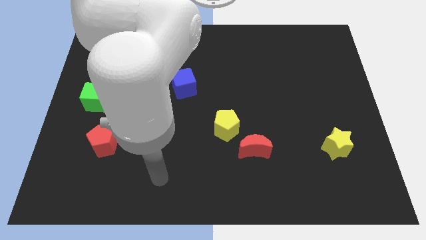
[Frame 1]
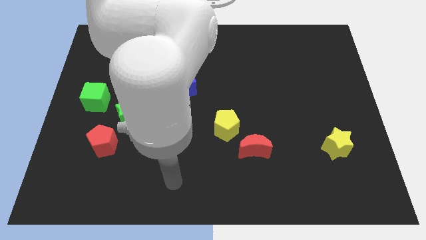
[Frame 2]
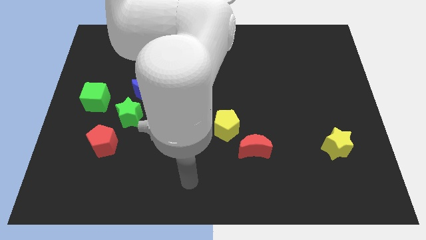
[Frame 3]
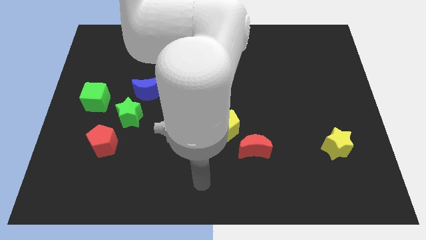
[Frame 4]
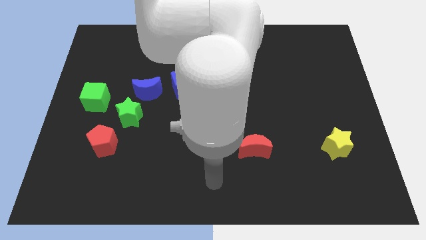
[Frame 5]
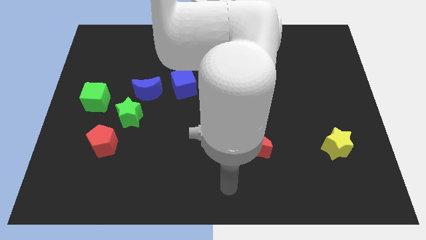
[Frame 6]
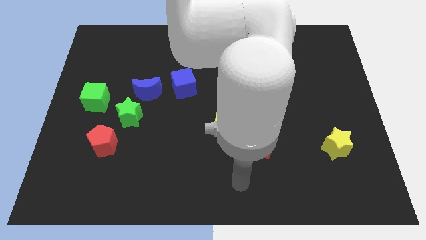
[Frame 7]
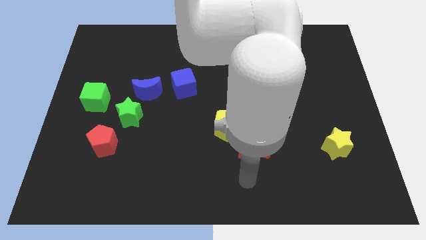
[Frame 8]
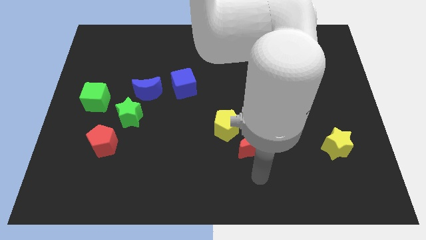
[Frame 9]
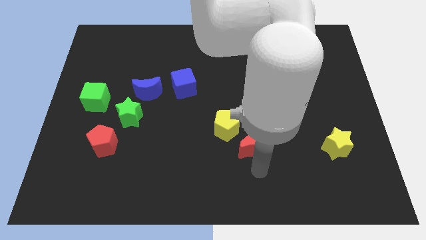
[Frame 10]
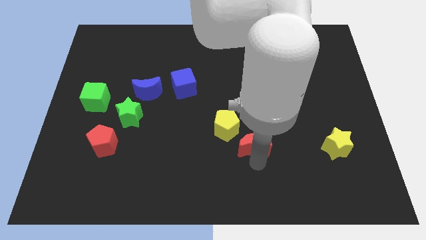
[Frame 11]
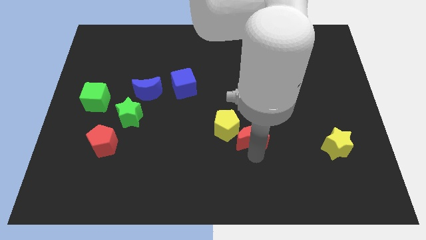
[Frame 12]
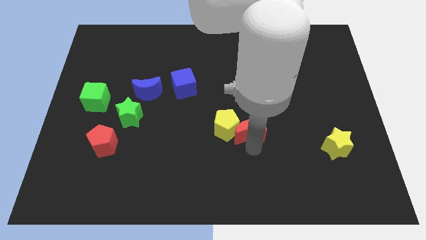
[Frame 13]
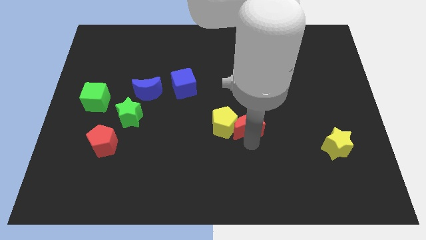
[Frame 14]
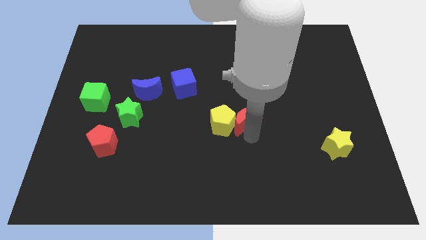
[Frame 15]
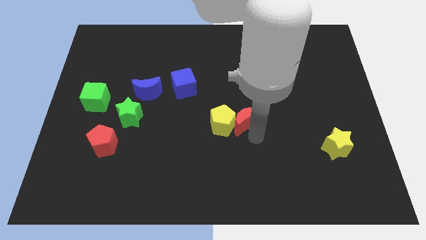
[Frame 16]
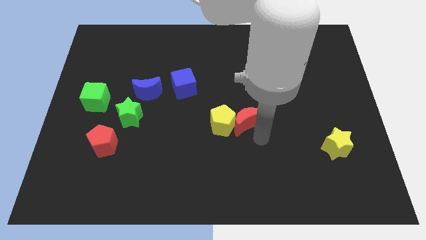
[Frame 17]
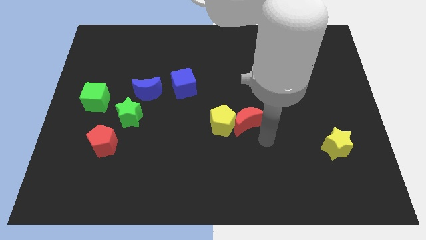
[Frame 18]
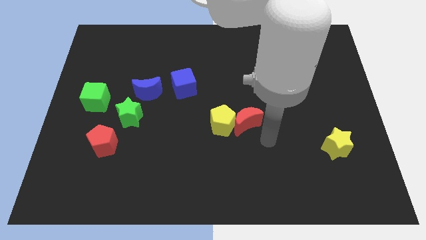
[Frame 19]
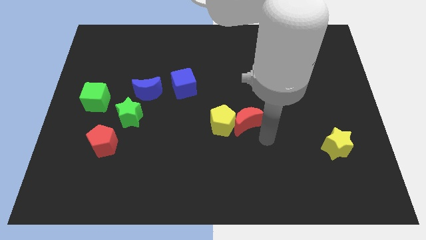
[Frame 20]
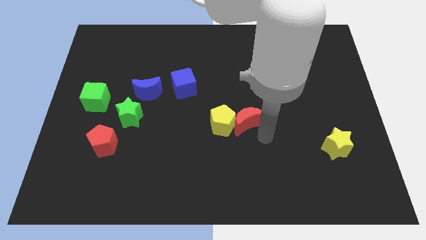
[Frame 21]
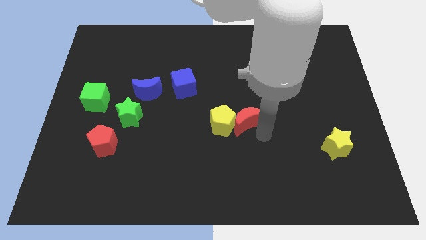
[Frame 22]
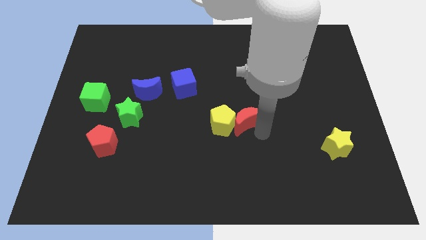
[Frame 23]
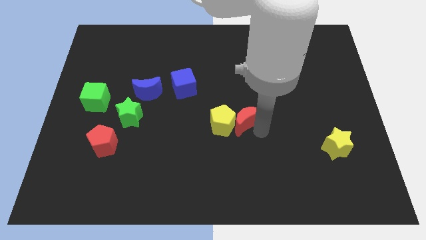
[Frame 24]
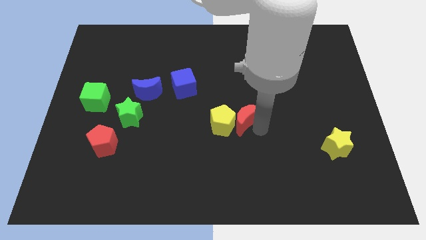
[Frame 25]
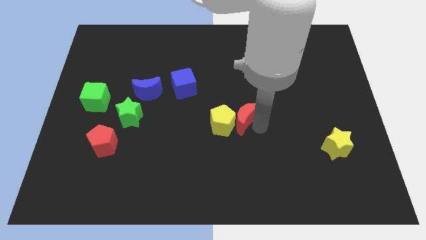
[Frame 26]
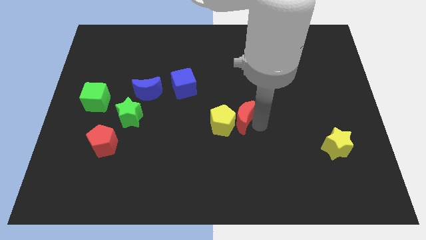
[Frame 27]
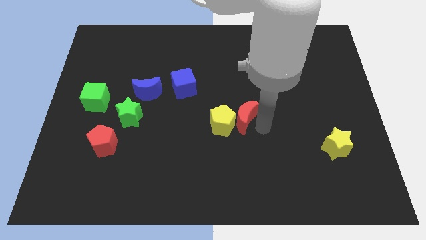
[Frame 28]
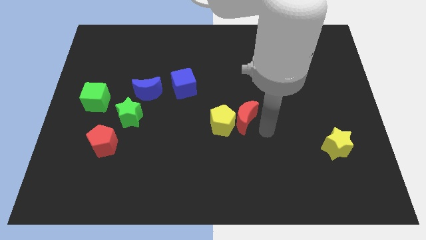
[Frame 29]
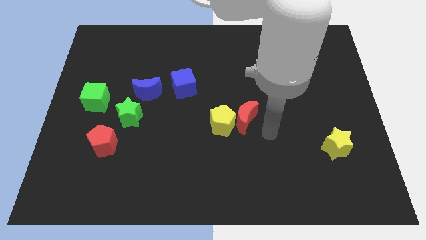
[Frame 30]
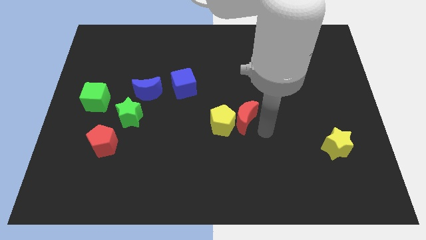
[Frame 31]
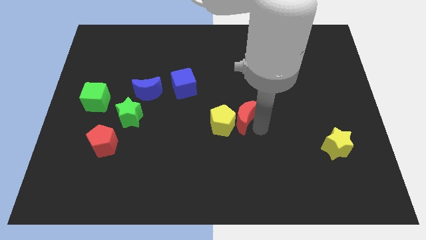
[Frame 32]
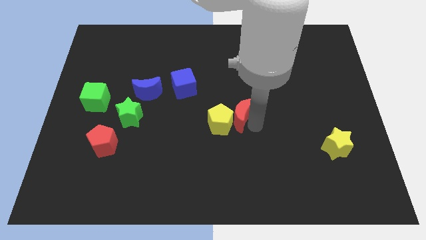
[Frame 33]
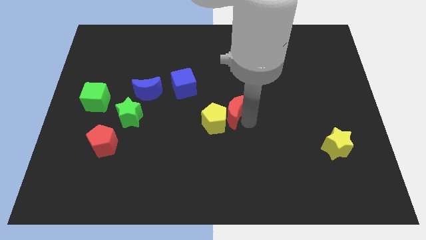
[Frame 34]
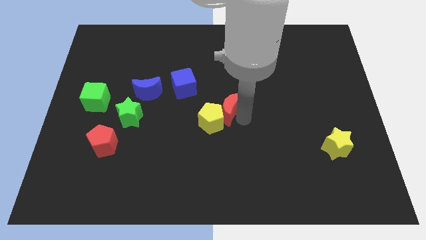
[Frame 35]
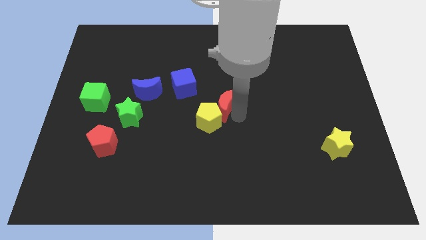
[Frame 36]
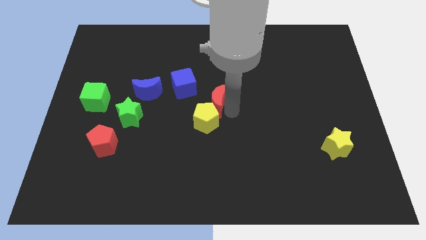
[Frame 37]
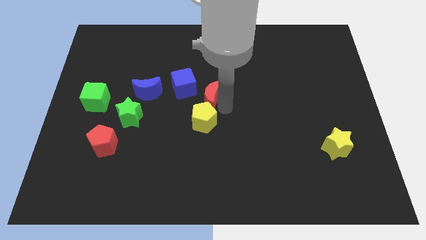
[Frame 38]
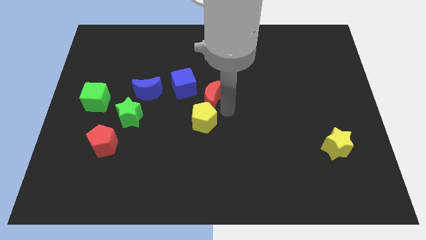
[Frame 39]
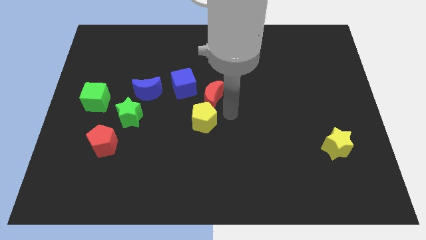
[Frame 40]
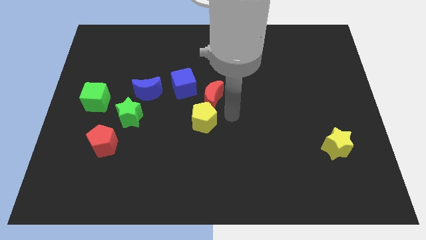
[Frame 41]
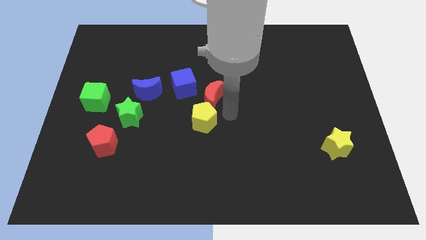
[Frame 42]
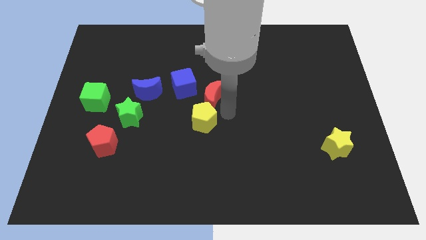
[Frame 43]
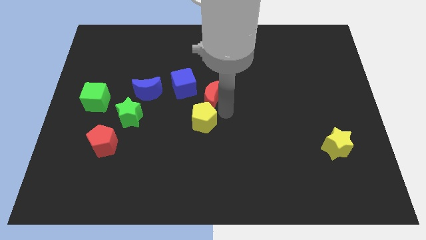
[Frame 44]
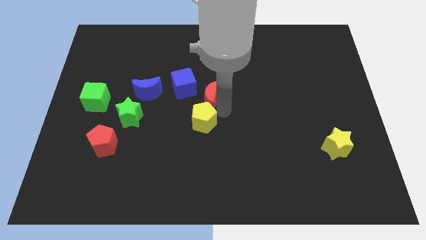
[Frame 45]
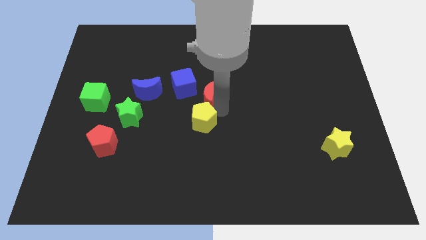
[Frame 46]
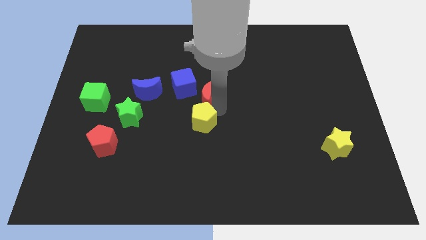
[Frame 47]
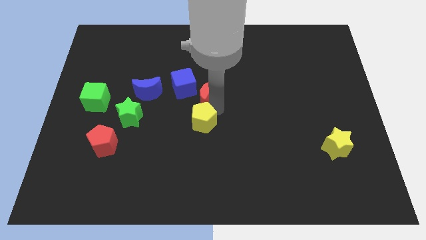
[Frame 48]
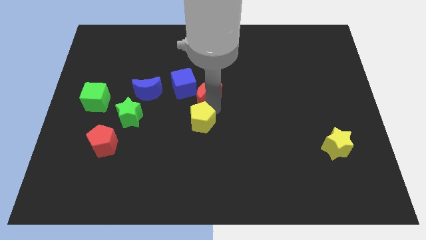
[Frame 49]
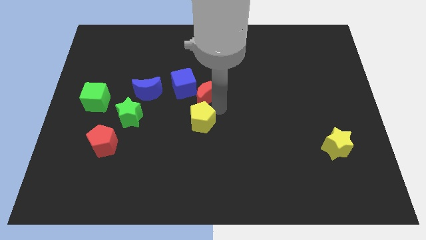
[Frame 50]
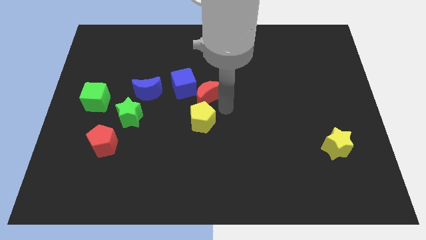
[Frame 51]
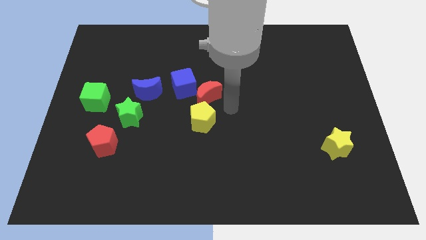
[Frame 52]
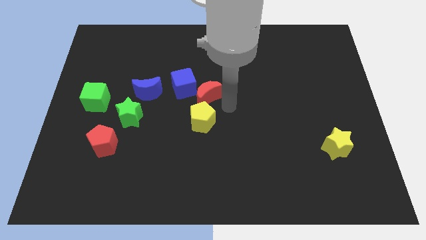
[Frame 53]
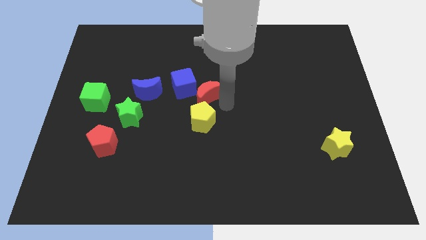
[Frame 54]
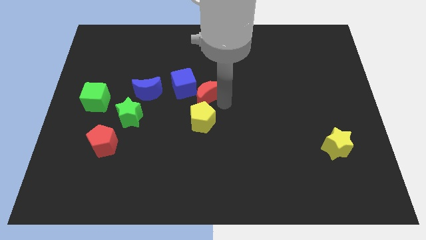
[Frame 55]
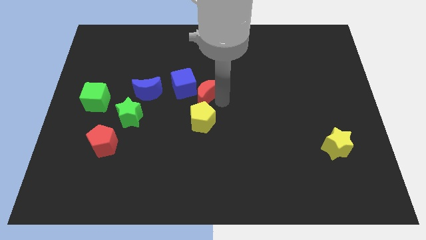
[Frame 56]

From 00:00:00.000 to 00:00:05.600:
move the red moon close to the blue cube

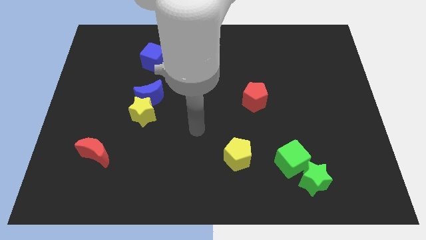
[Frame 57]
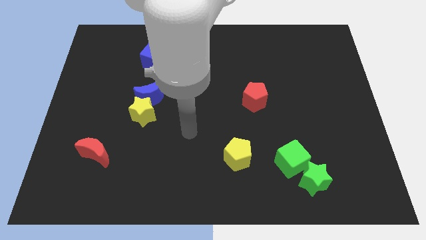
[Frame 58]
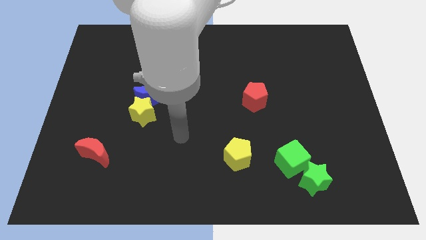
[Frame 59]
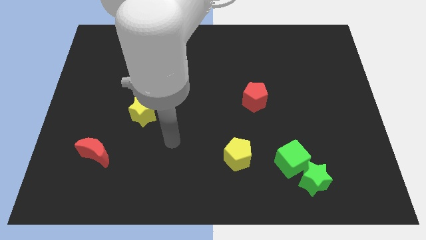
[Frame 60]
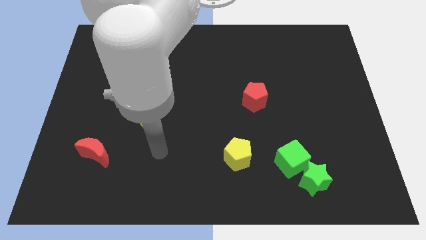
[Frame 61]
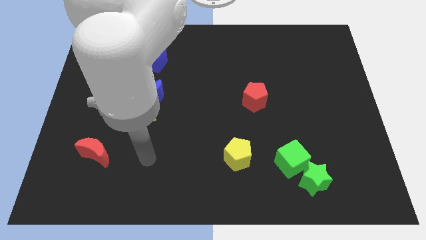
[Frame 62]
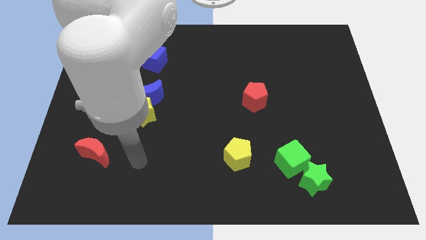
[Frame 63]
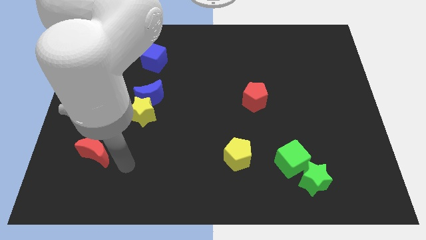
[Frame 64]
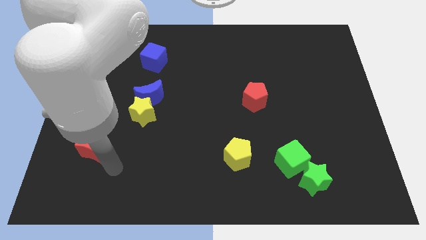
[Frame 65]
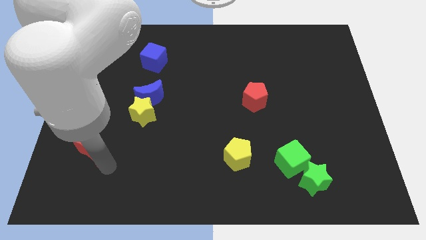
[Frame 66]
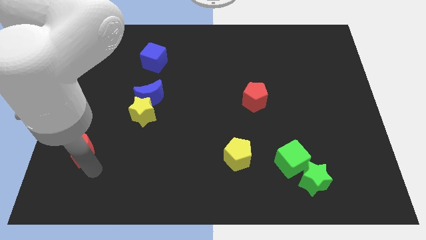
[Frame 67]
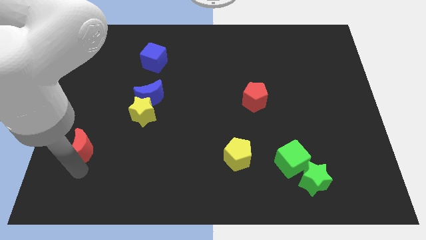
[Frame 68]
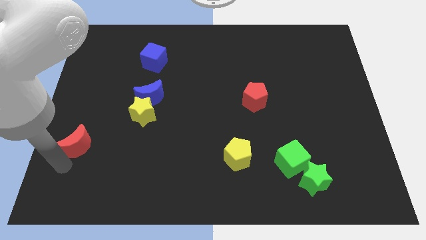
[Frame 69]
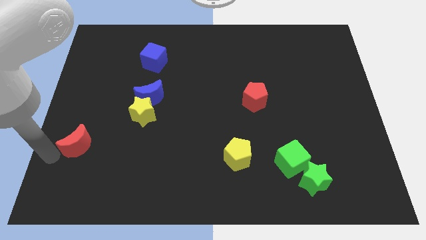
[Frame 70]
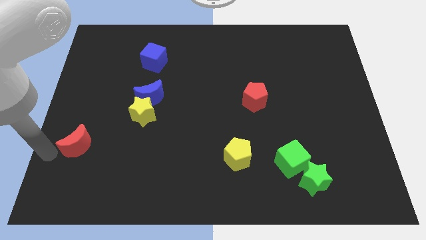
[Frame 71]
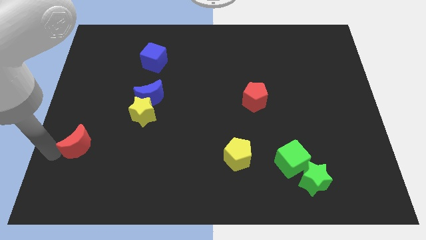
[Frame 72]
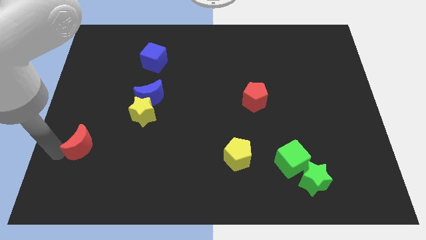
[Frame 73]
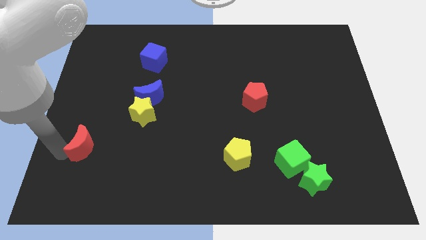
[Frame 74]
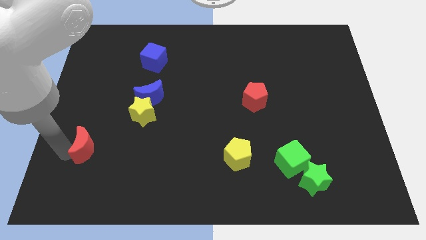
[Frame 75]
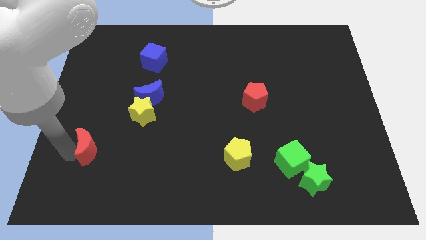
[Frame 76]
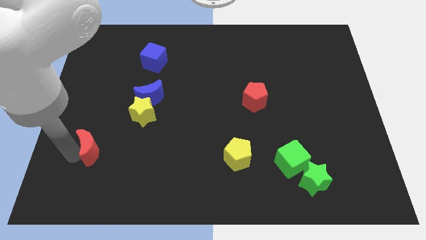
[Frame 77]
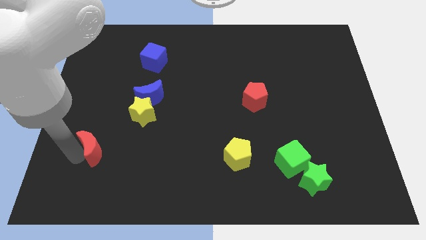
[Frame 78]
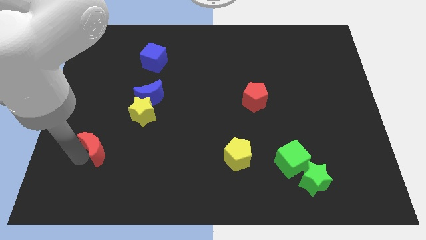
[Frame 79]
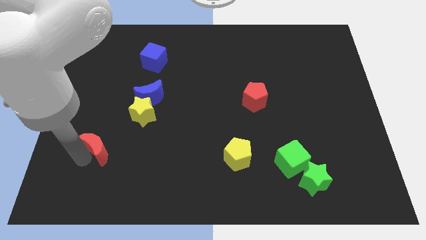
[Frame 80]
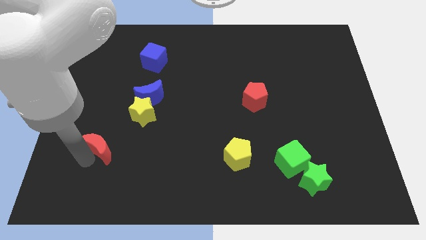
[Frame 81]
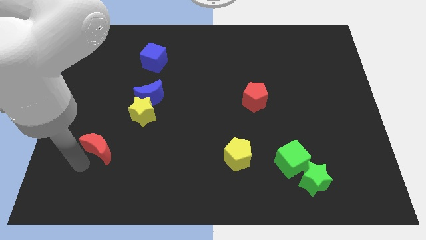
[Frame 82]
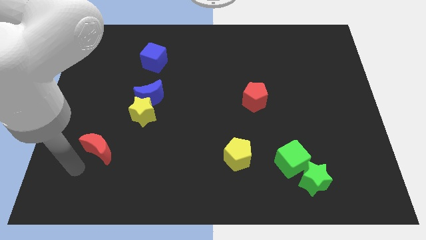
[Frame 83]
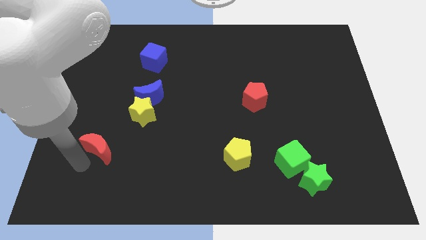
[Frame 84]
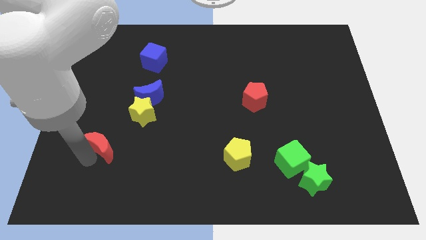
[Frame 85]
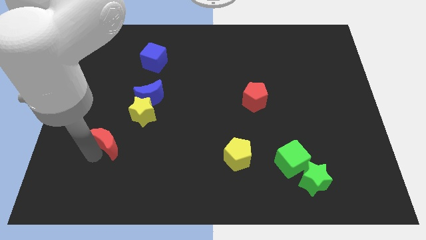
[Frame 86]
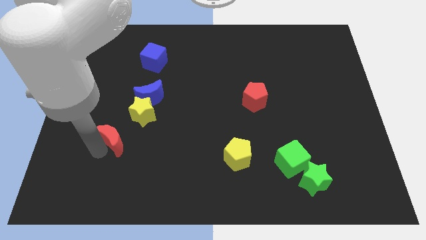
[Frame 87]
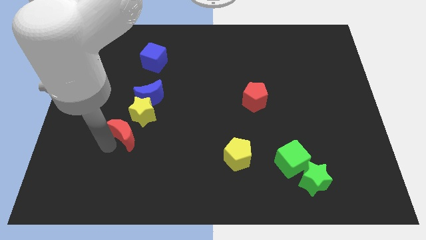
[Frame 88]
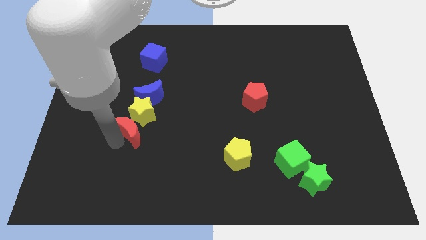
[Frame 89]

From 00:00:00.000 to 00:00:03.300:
move the red moon close to the yellow star
